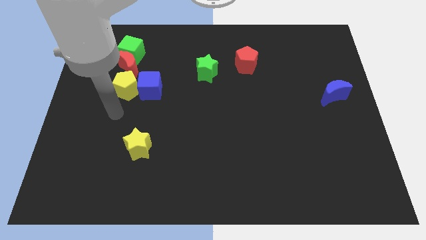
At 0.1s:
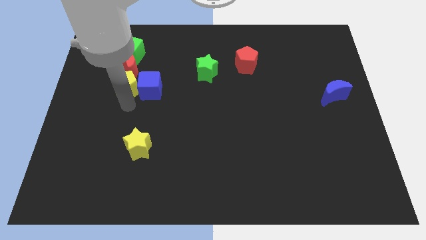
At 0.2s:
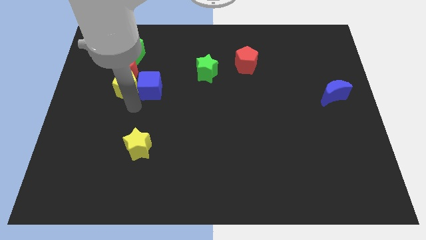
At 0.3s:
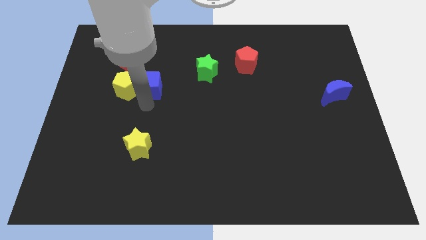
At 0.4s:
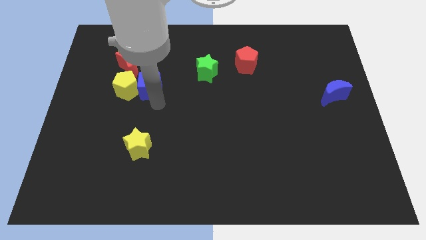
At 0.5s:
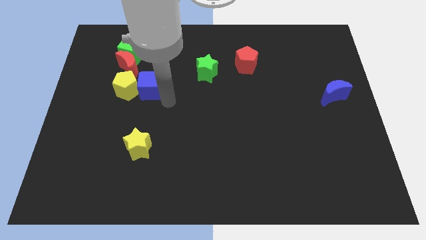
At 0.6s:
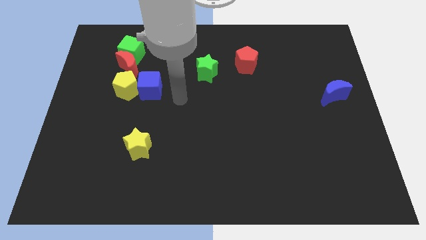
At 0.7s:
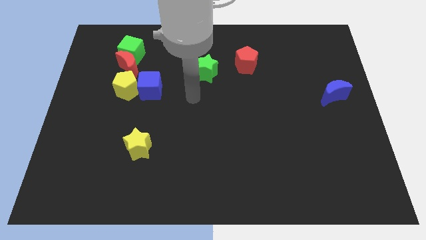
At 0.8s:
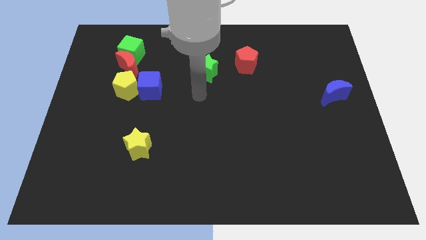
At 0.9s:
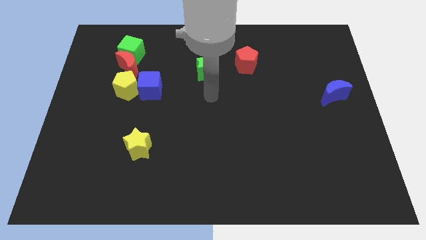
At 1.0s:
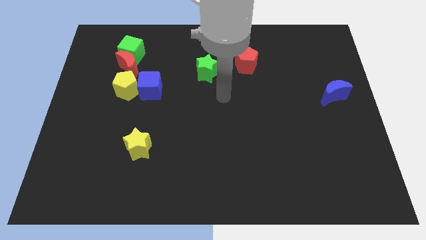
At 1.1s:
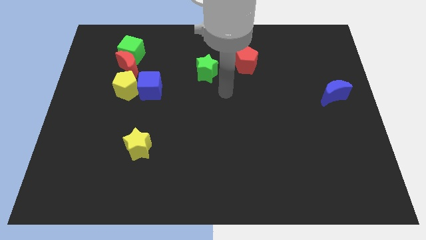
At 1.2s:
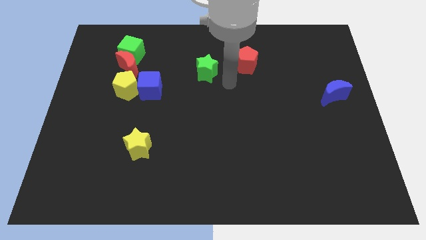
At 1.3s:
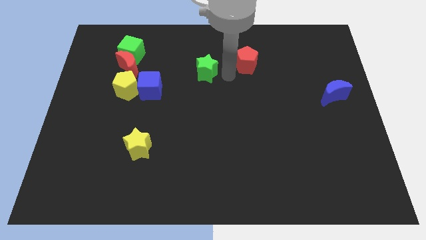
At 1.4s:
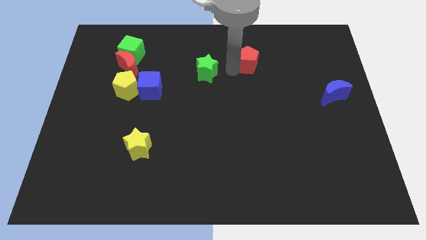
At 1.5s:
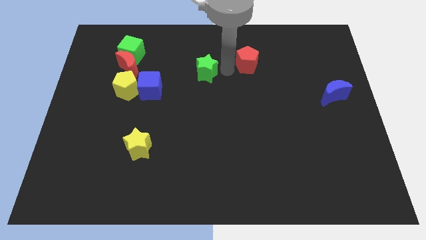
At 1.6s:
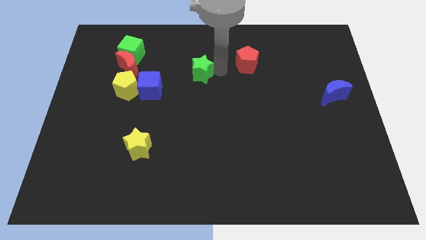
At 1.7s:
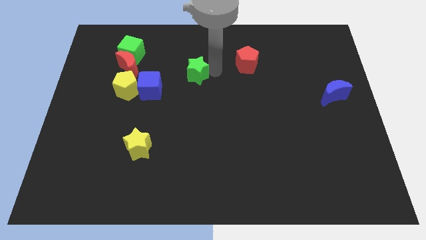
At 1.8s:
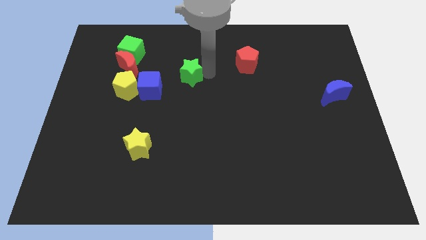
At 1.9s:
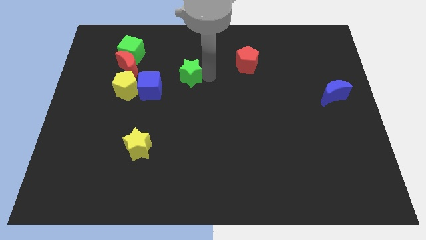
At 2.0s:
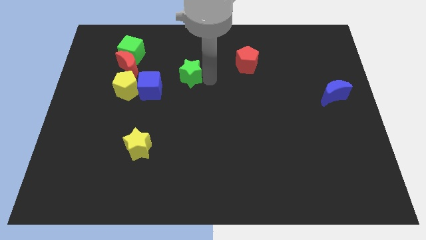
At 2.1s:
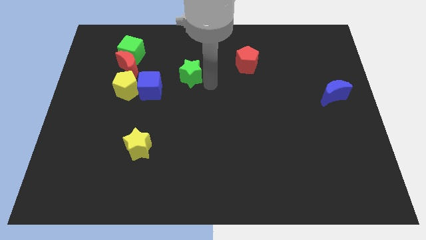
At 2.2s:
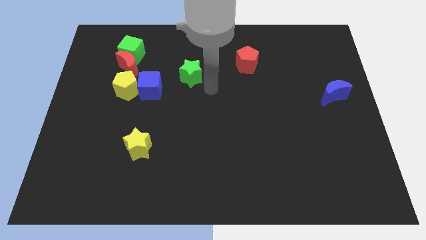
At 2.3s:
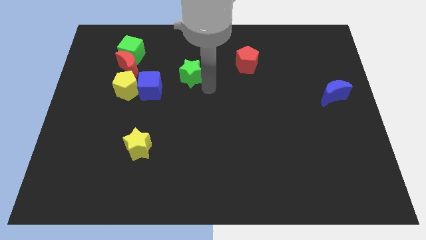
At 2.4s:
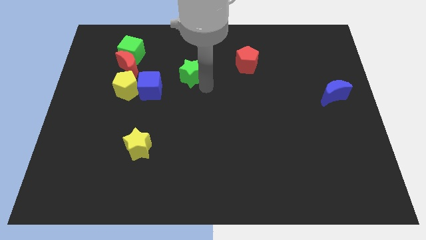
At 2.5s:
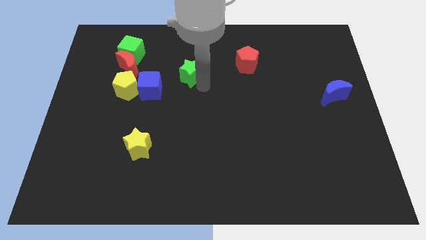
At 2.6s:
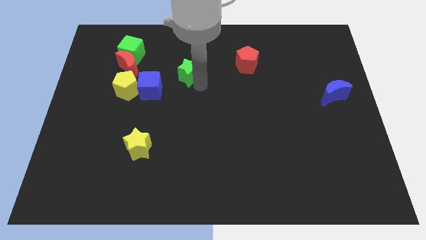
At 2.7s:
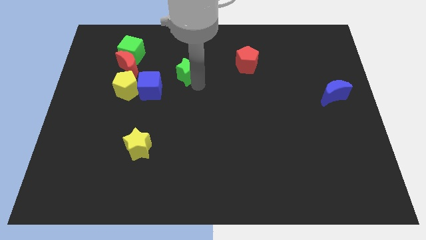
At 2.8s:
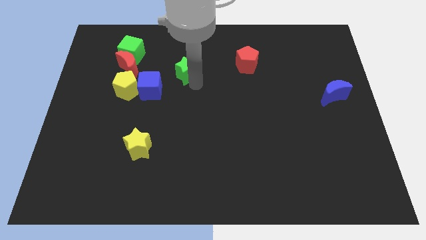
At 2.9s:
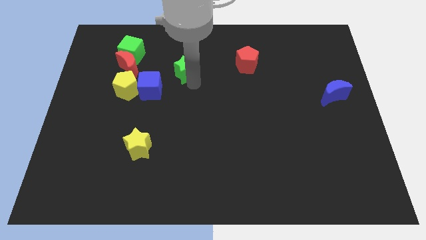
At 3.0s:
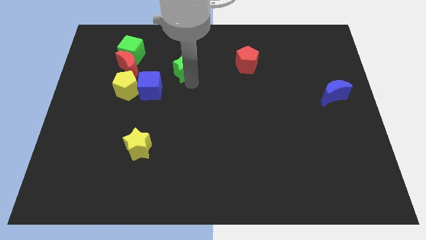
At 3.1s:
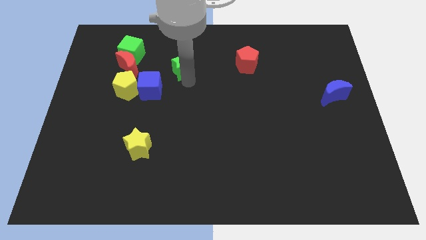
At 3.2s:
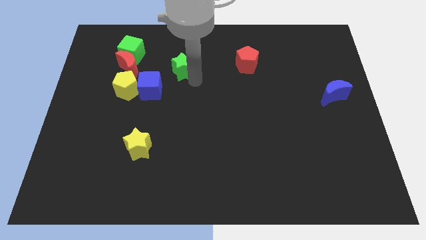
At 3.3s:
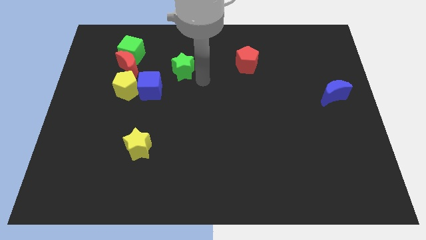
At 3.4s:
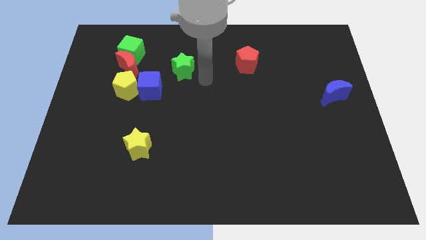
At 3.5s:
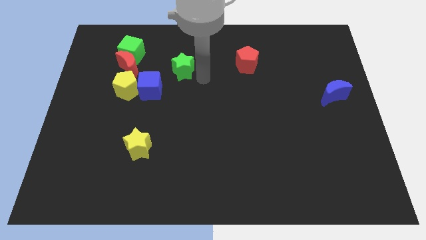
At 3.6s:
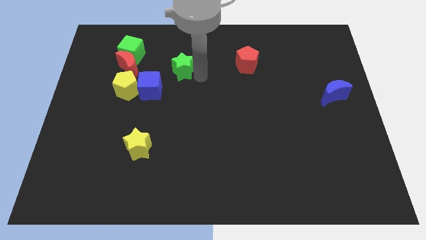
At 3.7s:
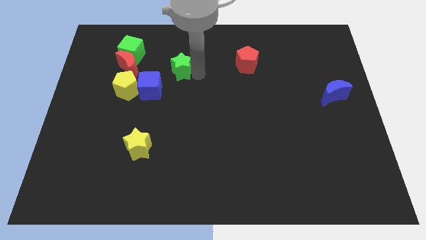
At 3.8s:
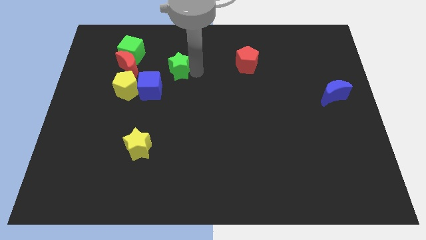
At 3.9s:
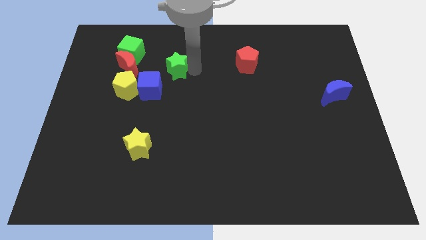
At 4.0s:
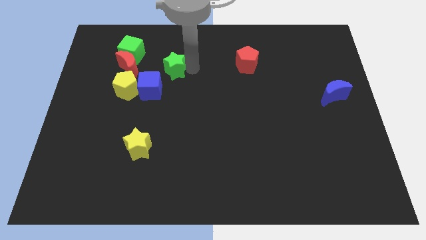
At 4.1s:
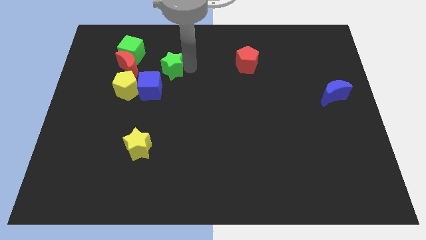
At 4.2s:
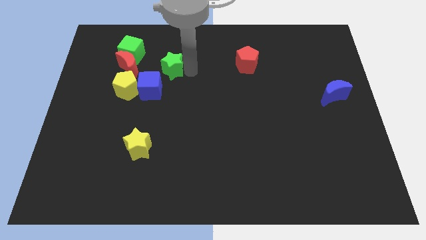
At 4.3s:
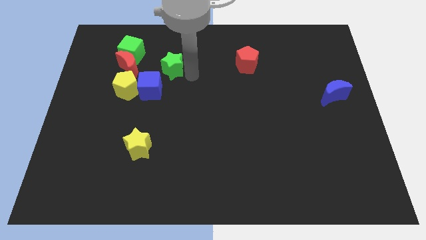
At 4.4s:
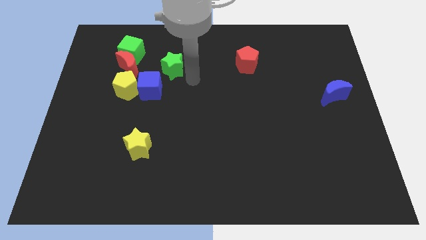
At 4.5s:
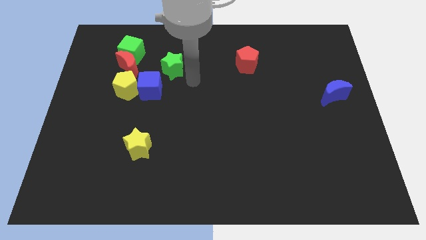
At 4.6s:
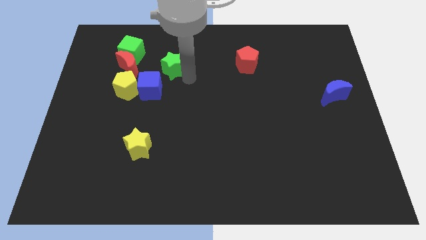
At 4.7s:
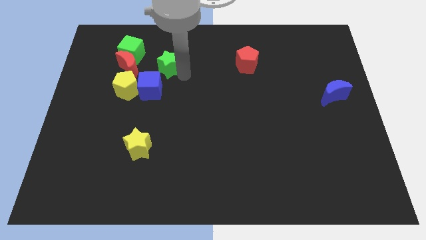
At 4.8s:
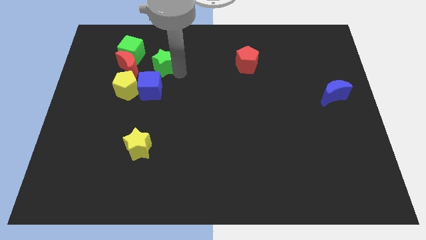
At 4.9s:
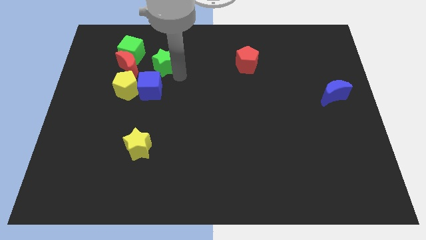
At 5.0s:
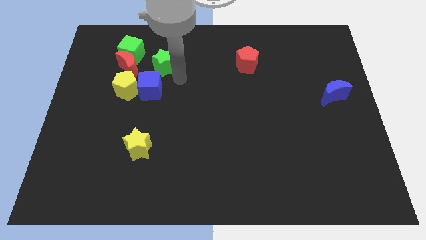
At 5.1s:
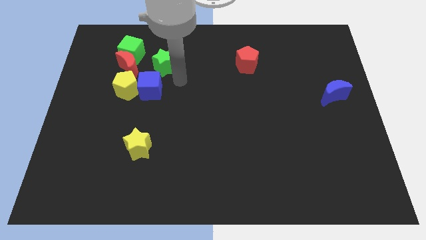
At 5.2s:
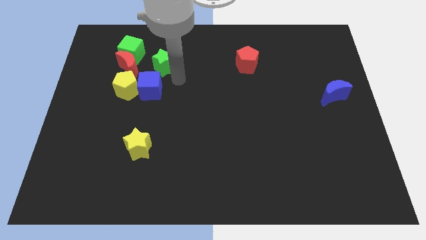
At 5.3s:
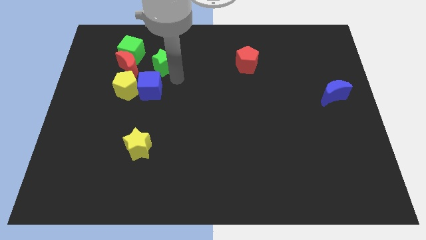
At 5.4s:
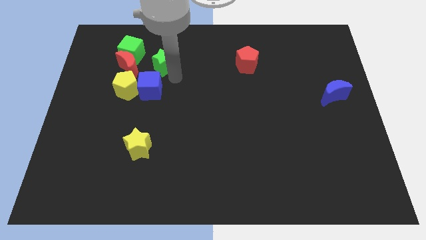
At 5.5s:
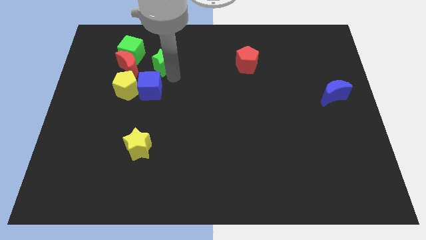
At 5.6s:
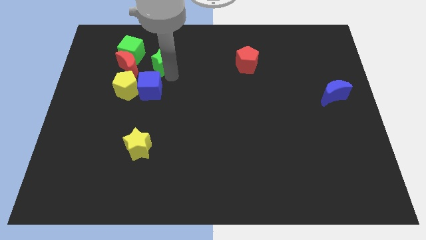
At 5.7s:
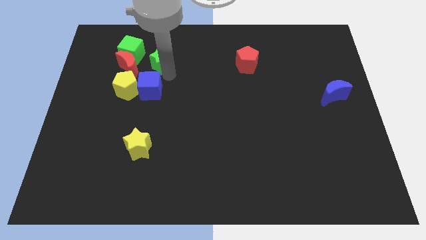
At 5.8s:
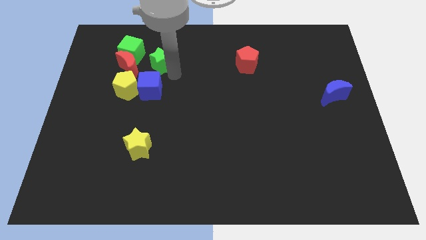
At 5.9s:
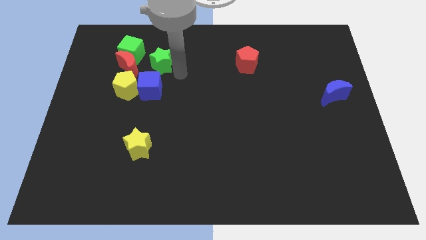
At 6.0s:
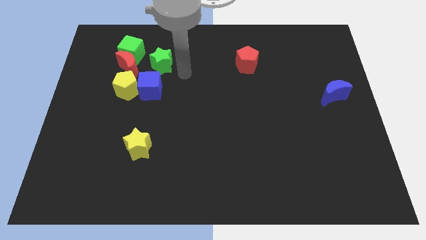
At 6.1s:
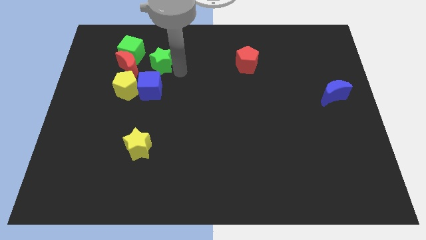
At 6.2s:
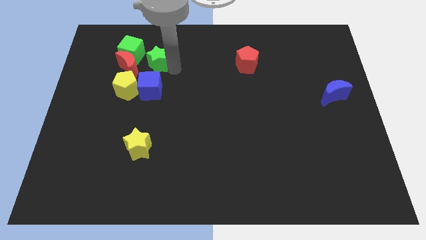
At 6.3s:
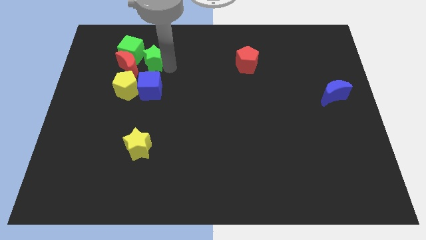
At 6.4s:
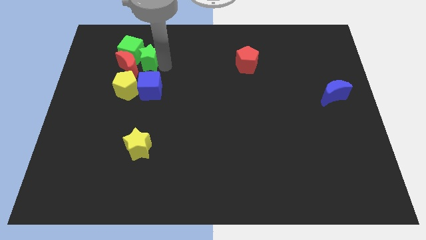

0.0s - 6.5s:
move the green star towards the green cube
